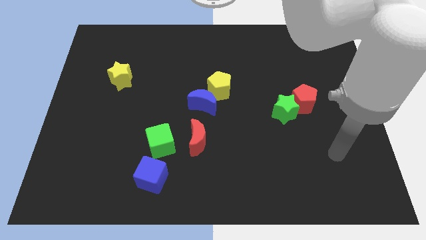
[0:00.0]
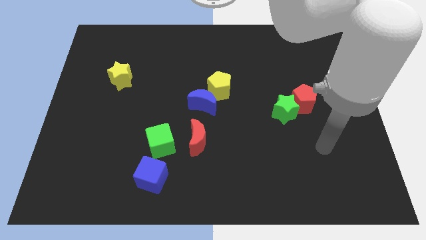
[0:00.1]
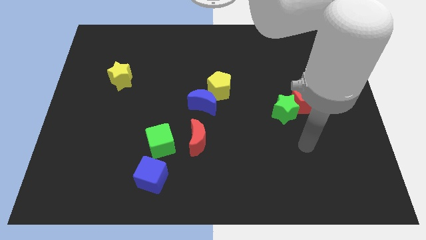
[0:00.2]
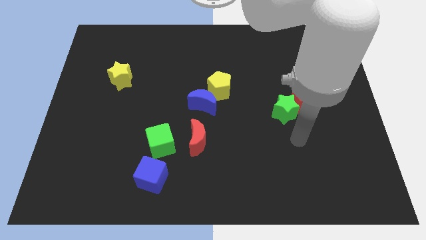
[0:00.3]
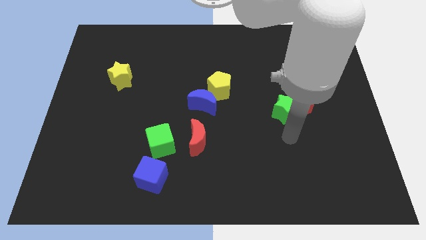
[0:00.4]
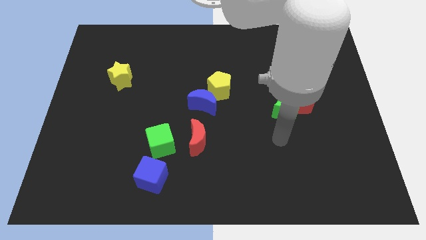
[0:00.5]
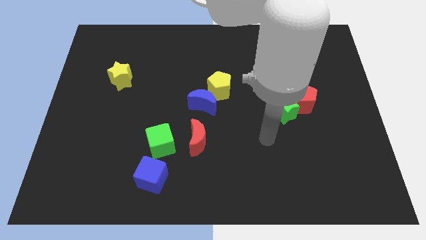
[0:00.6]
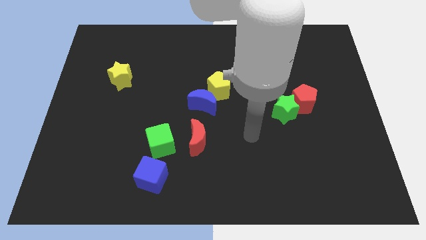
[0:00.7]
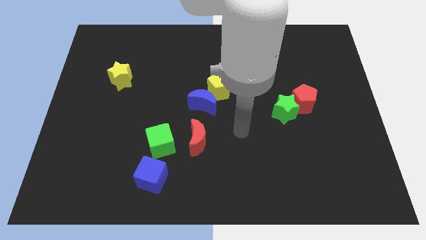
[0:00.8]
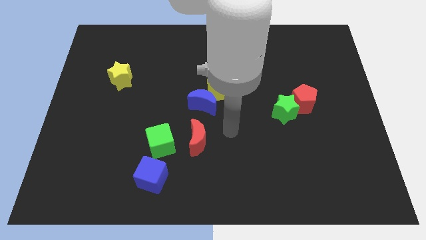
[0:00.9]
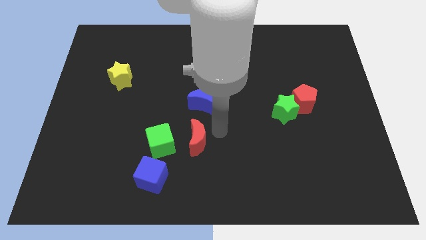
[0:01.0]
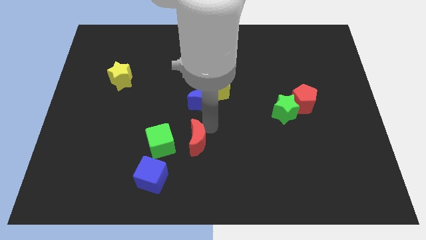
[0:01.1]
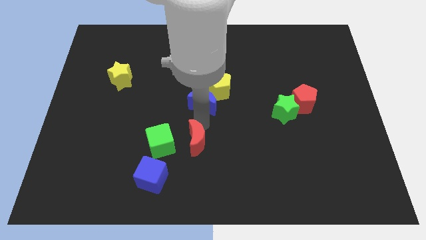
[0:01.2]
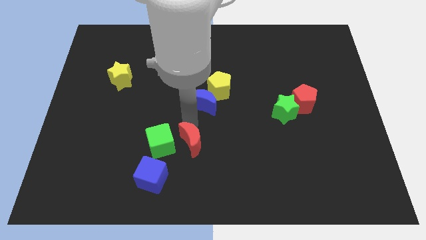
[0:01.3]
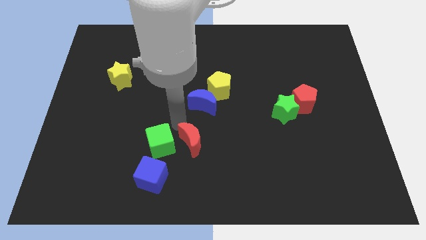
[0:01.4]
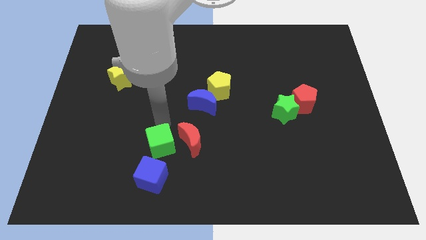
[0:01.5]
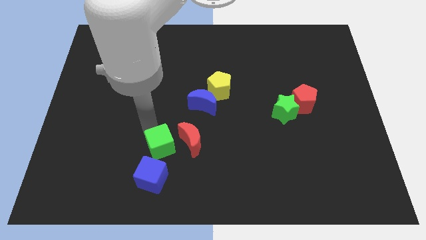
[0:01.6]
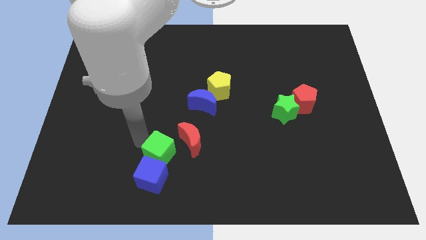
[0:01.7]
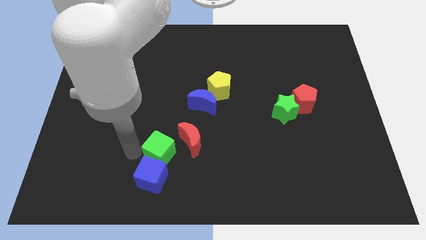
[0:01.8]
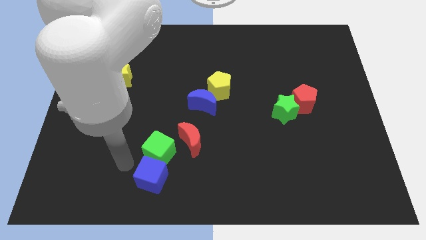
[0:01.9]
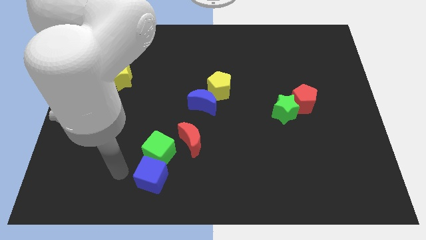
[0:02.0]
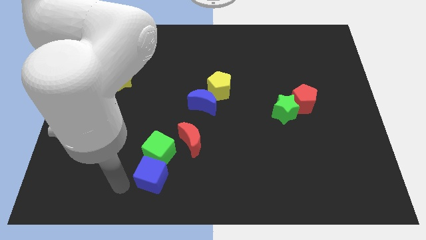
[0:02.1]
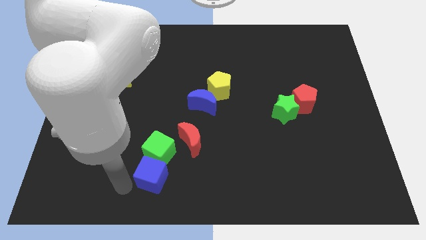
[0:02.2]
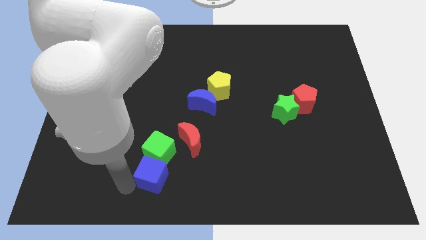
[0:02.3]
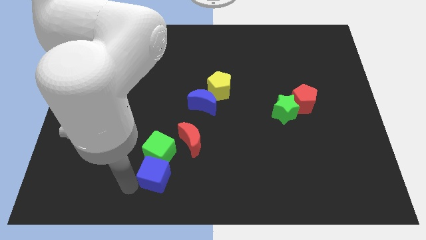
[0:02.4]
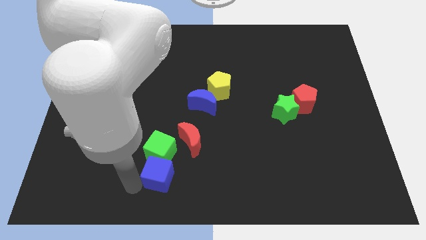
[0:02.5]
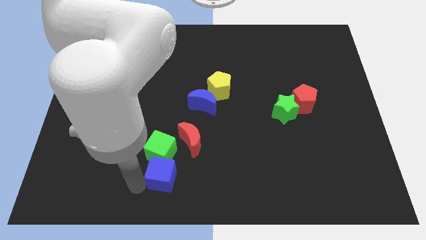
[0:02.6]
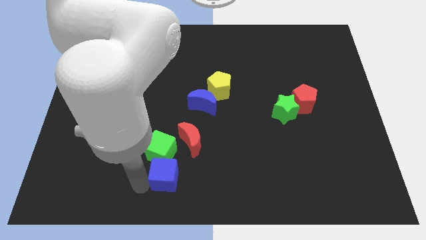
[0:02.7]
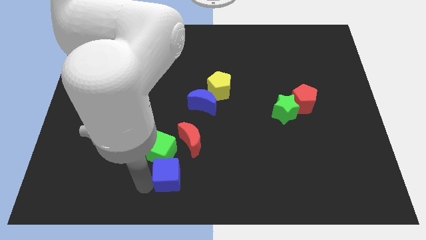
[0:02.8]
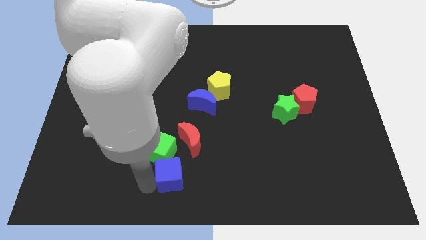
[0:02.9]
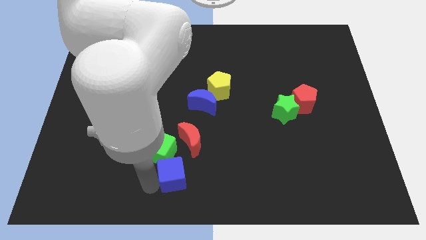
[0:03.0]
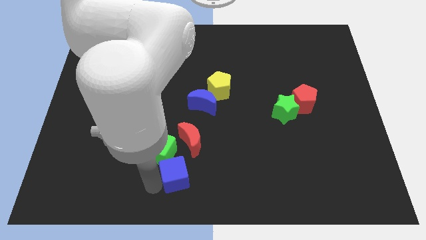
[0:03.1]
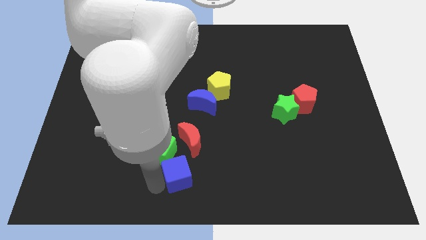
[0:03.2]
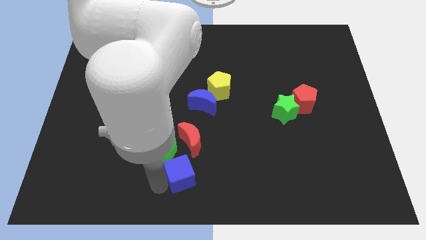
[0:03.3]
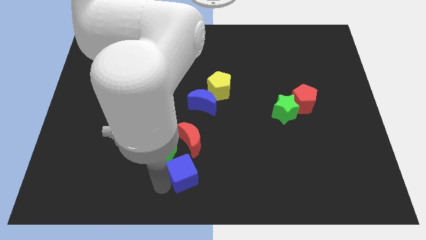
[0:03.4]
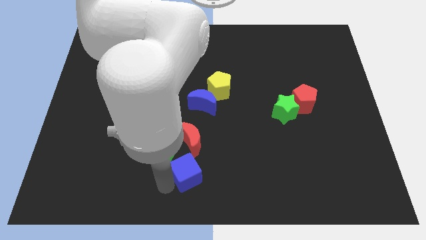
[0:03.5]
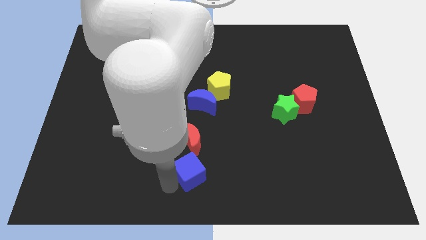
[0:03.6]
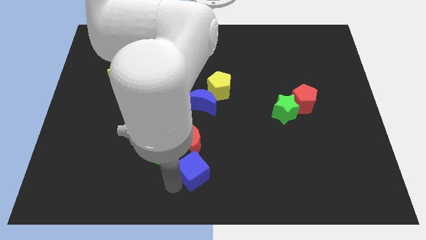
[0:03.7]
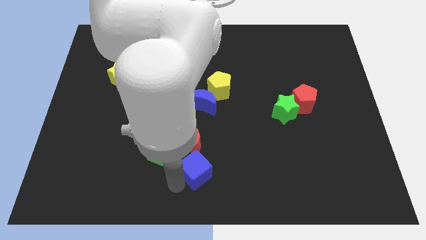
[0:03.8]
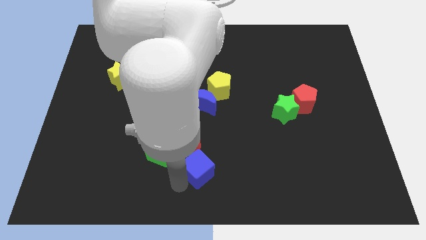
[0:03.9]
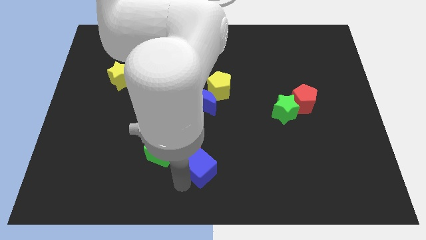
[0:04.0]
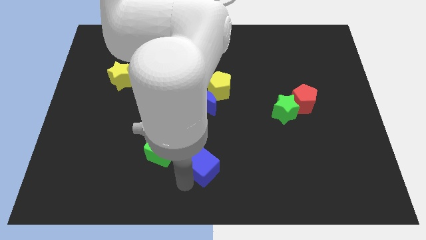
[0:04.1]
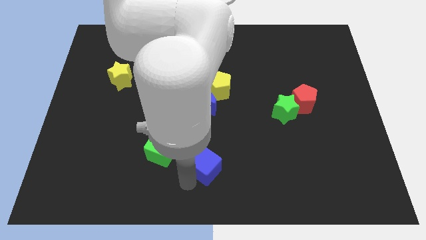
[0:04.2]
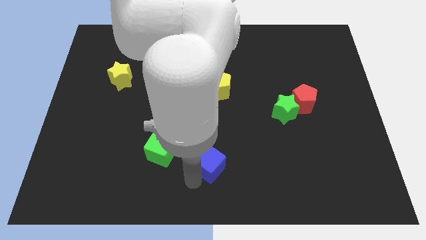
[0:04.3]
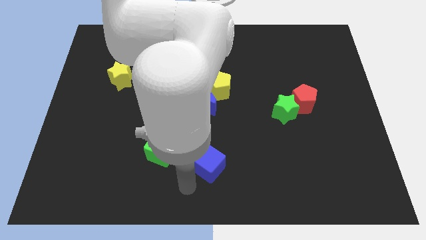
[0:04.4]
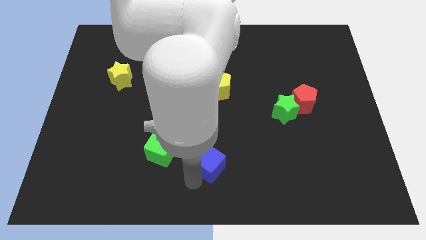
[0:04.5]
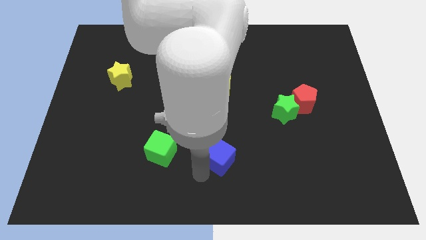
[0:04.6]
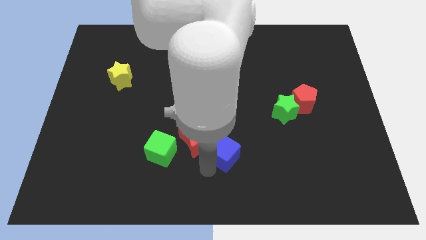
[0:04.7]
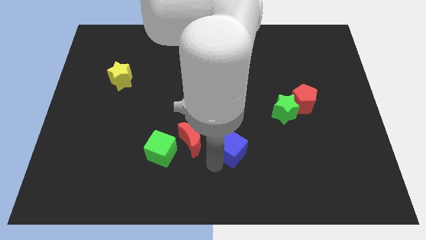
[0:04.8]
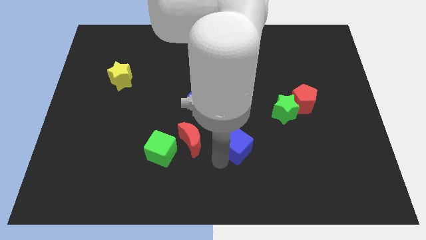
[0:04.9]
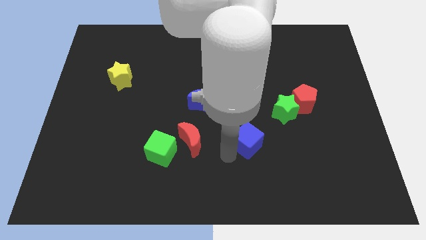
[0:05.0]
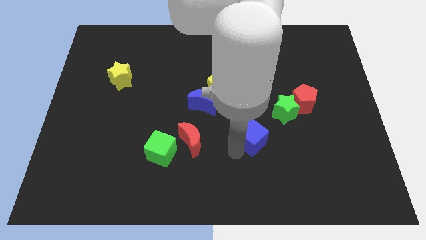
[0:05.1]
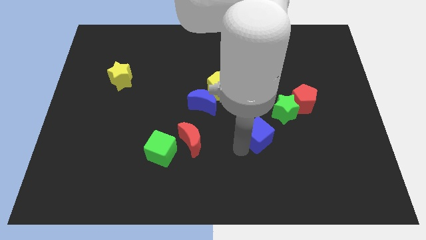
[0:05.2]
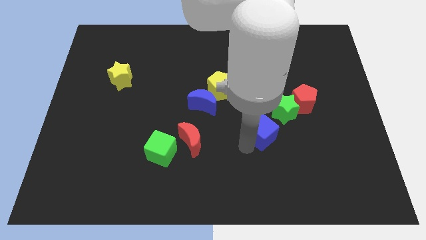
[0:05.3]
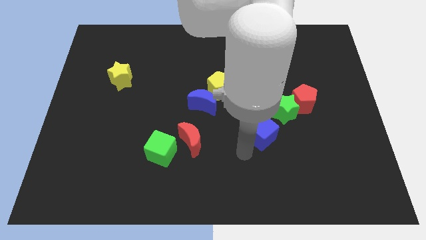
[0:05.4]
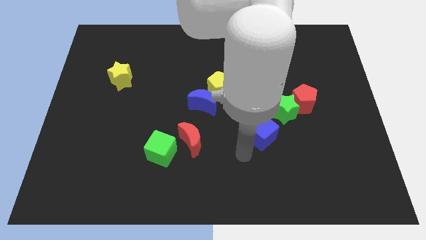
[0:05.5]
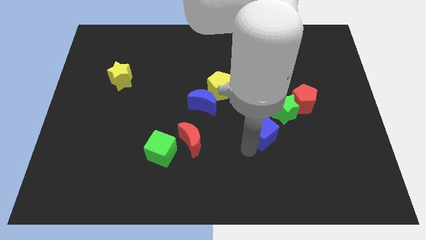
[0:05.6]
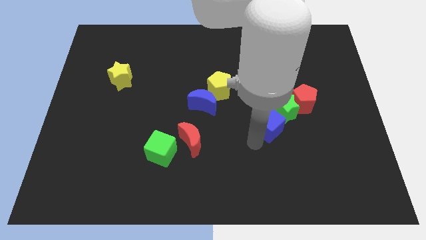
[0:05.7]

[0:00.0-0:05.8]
put the blue cube towards the green star

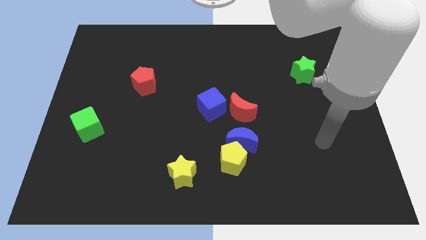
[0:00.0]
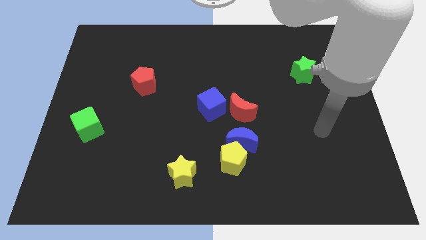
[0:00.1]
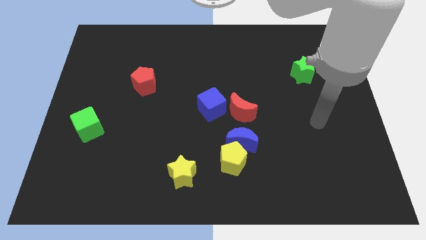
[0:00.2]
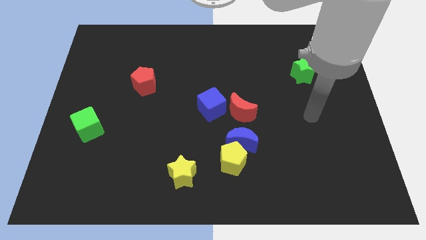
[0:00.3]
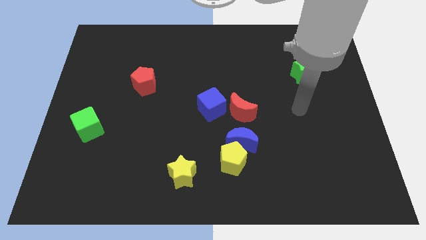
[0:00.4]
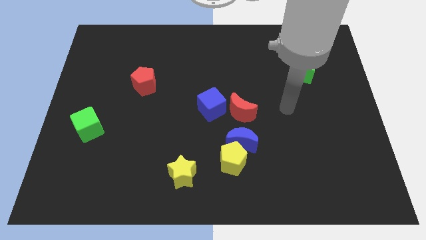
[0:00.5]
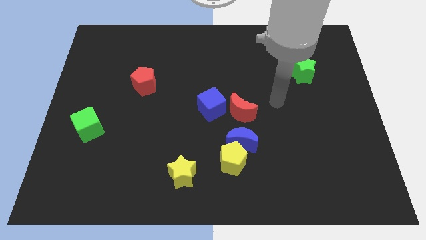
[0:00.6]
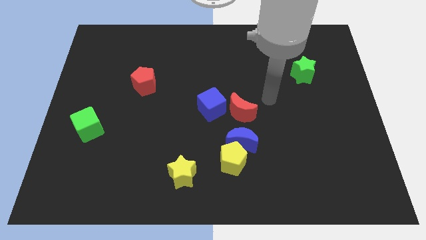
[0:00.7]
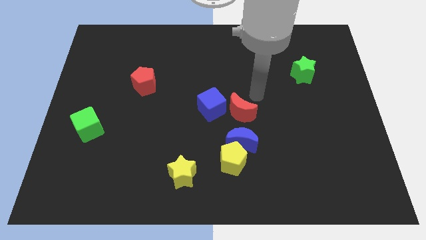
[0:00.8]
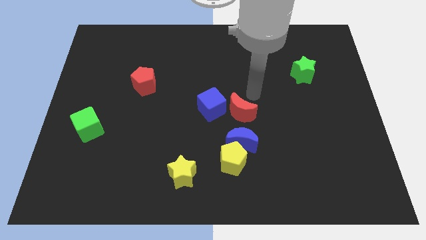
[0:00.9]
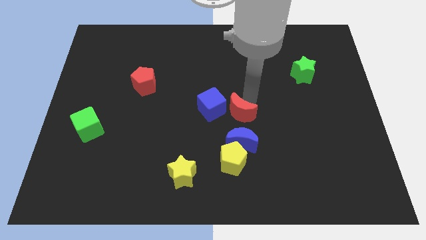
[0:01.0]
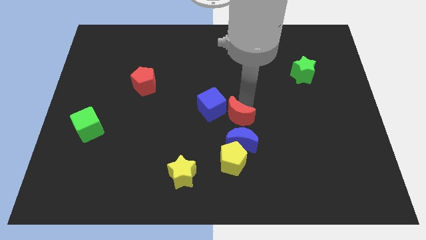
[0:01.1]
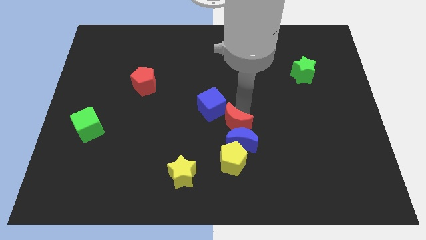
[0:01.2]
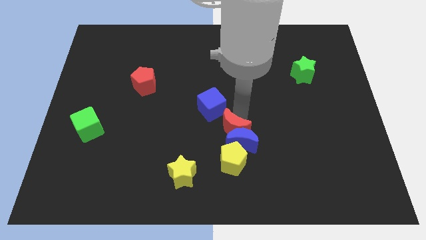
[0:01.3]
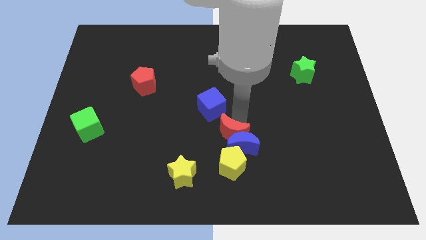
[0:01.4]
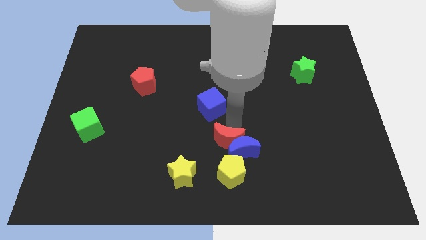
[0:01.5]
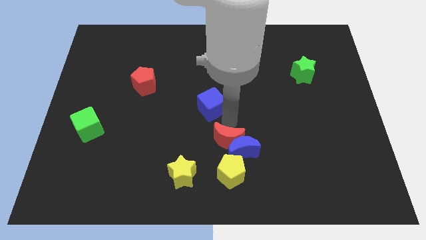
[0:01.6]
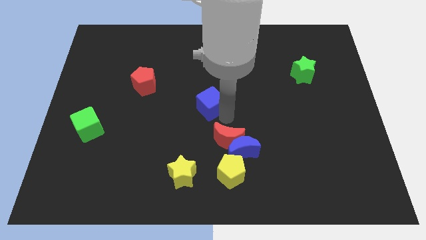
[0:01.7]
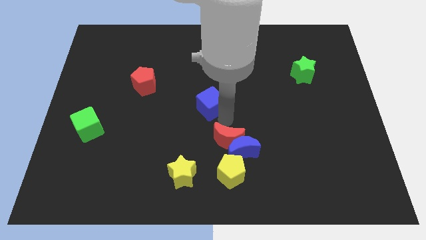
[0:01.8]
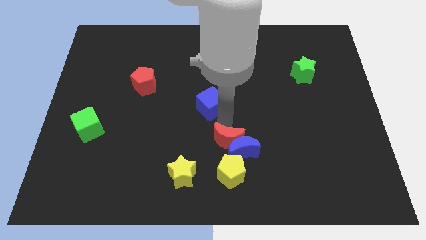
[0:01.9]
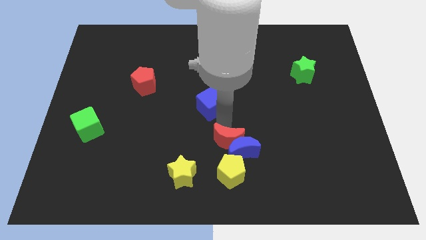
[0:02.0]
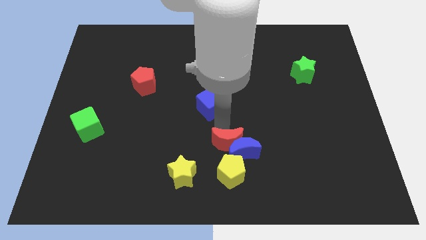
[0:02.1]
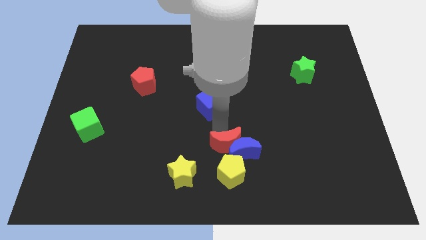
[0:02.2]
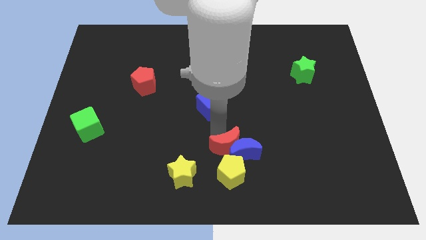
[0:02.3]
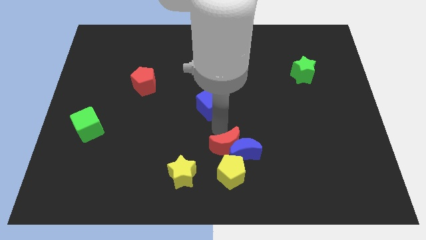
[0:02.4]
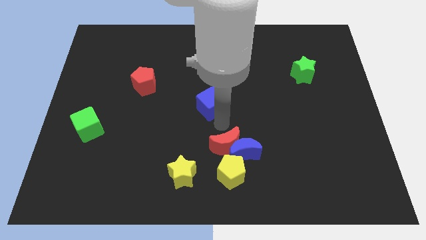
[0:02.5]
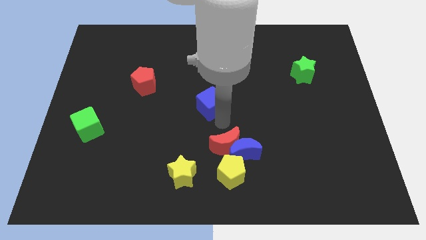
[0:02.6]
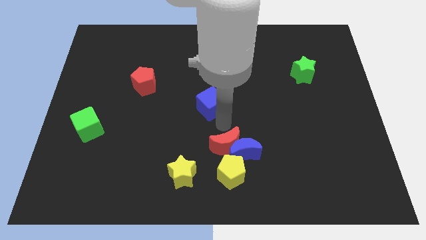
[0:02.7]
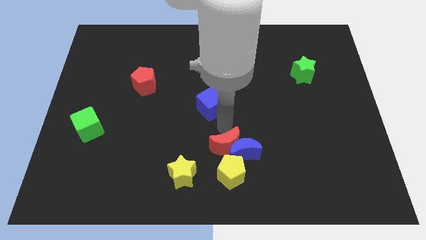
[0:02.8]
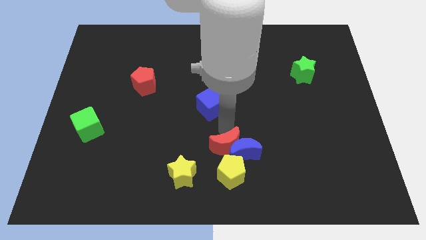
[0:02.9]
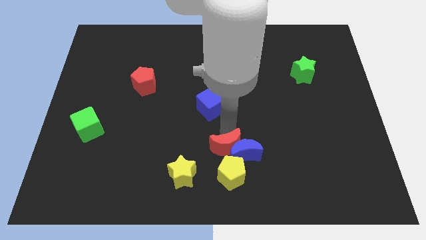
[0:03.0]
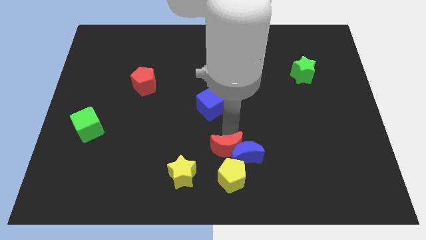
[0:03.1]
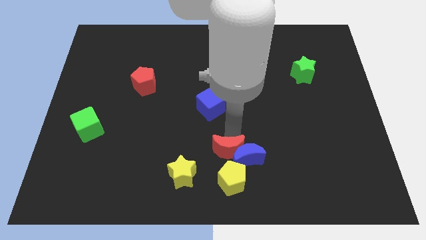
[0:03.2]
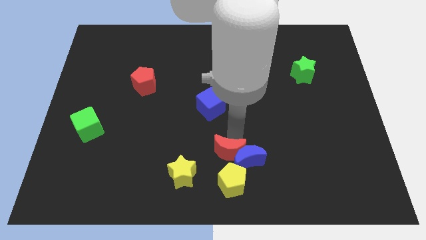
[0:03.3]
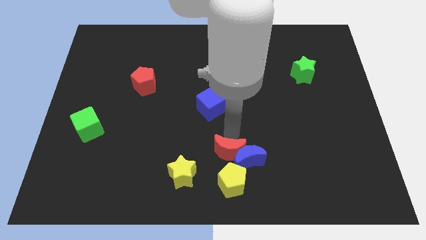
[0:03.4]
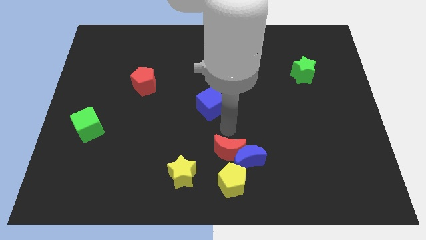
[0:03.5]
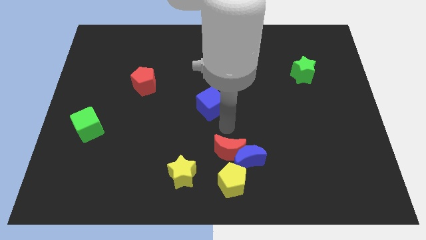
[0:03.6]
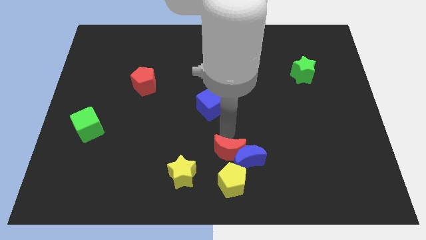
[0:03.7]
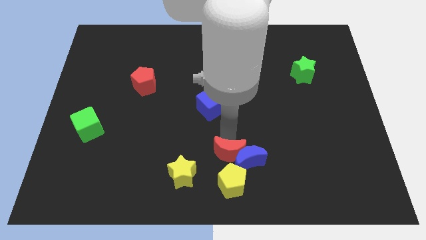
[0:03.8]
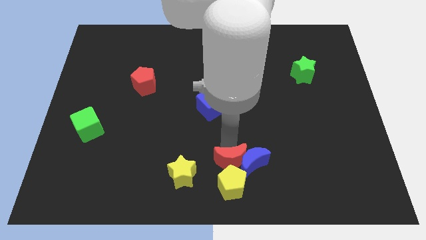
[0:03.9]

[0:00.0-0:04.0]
move the red moon close to the yellow pentagon
